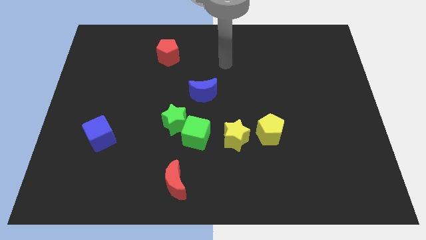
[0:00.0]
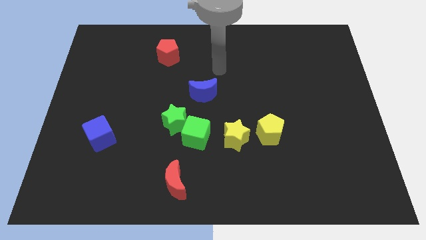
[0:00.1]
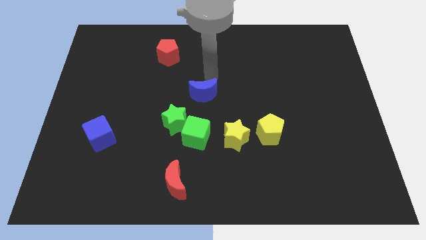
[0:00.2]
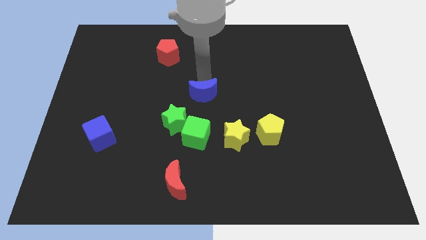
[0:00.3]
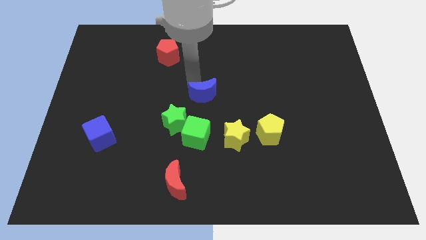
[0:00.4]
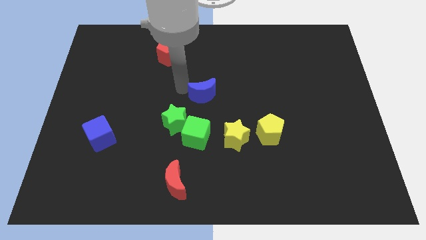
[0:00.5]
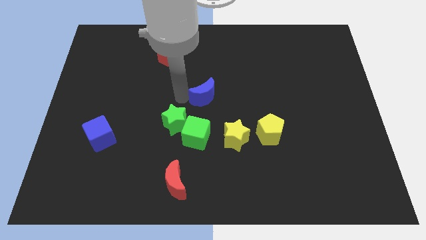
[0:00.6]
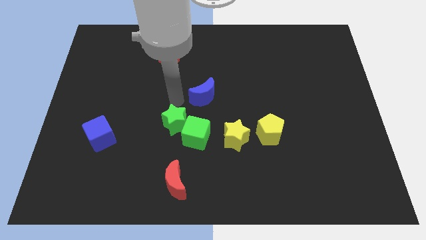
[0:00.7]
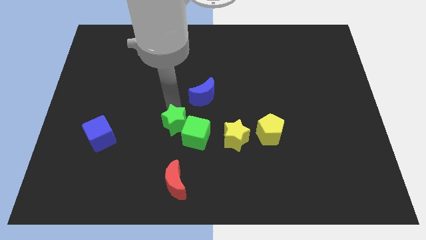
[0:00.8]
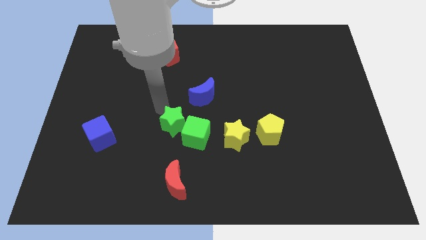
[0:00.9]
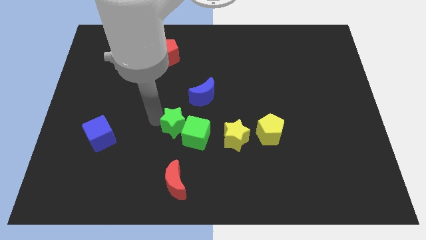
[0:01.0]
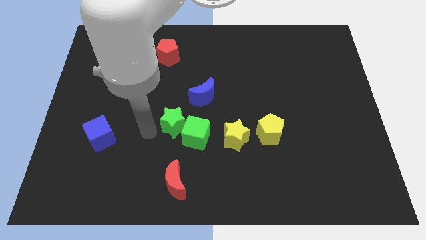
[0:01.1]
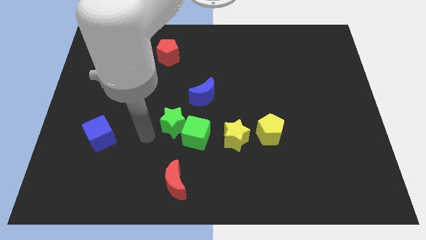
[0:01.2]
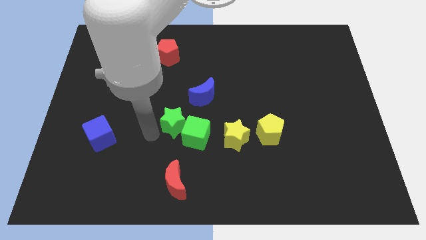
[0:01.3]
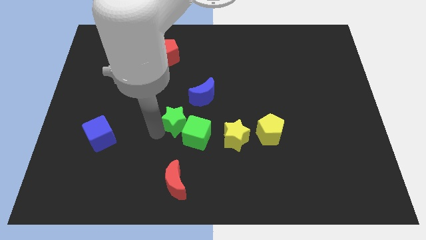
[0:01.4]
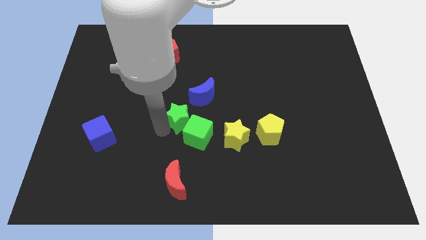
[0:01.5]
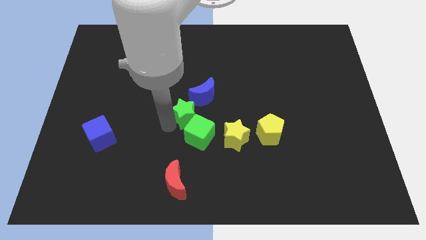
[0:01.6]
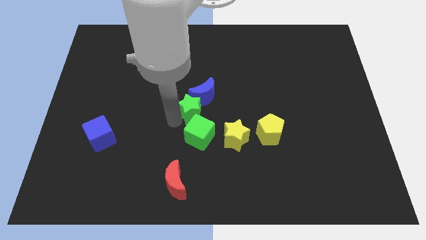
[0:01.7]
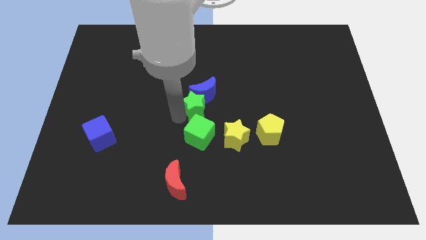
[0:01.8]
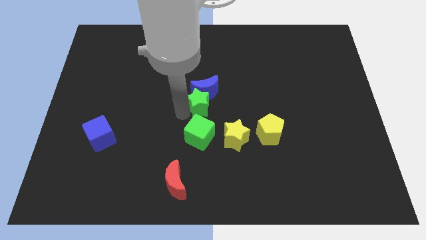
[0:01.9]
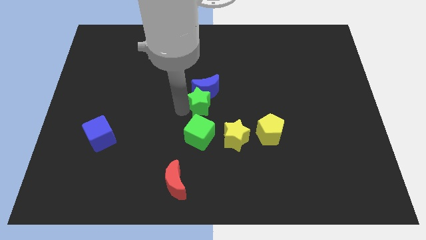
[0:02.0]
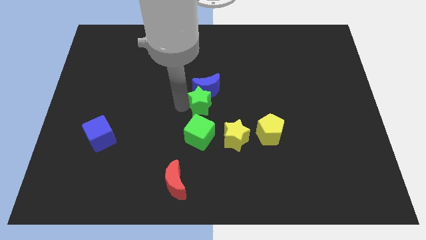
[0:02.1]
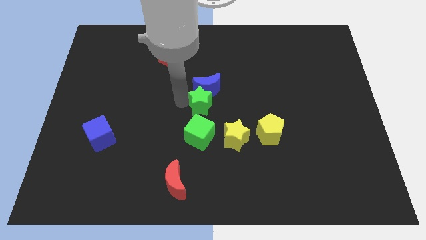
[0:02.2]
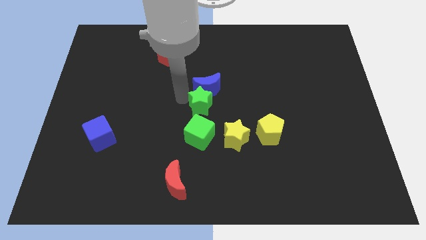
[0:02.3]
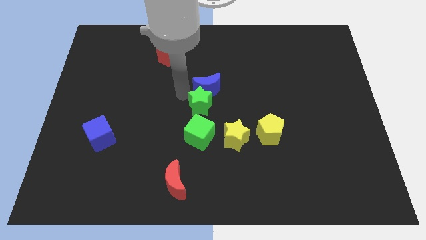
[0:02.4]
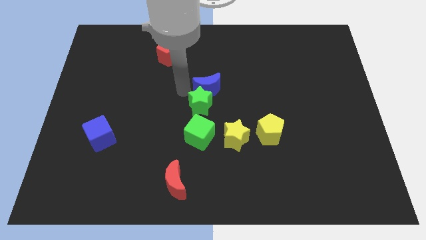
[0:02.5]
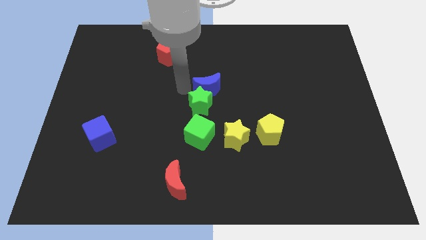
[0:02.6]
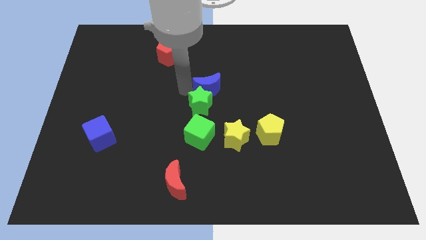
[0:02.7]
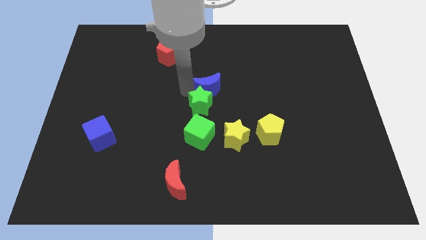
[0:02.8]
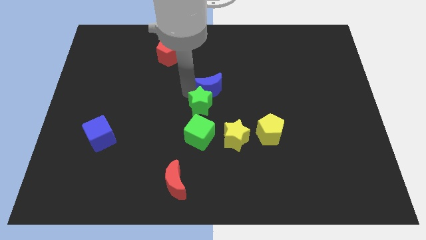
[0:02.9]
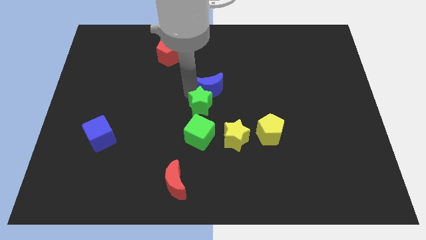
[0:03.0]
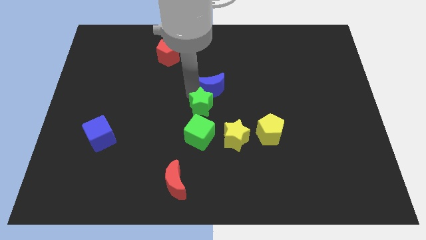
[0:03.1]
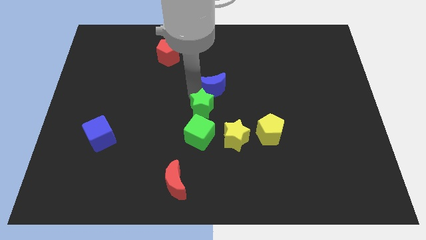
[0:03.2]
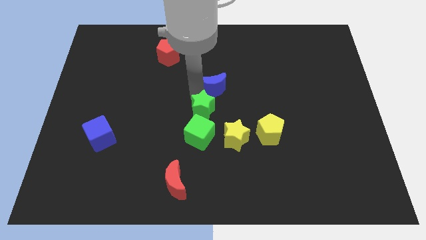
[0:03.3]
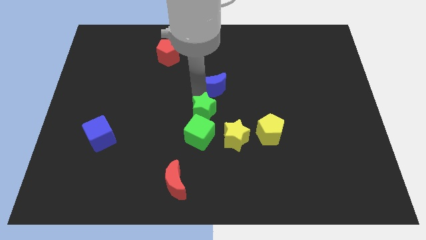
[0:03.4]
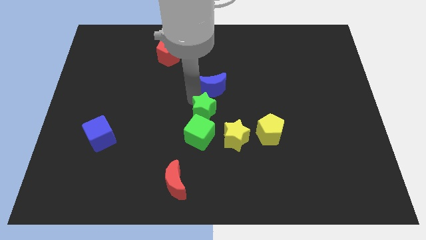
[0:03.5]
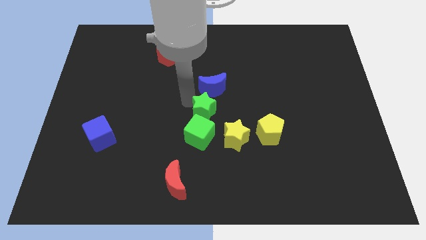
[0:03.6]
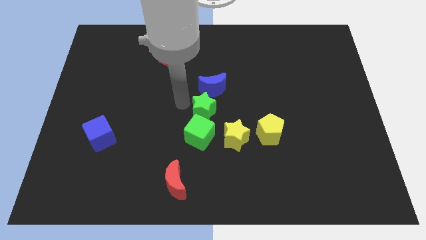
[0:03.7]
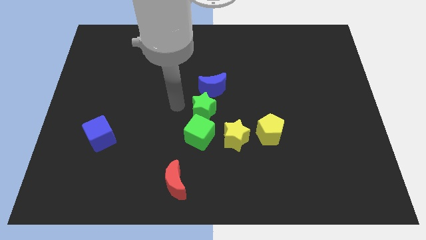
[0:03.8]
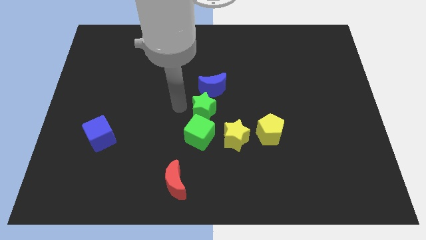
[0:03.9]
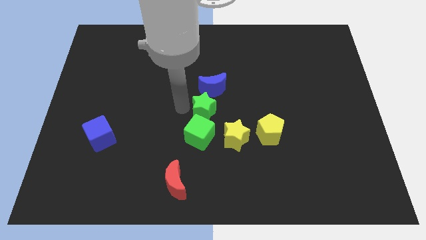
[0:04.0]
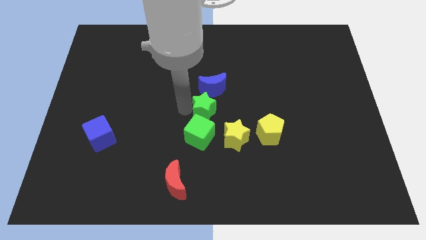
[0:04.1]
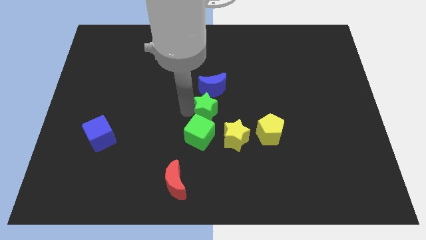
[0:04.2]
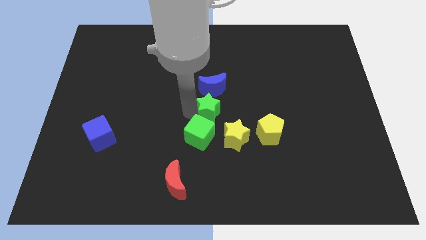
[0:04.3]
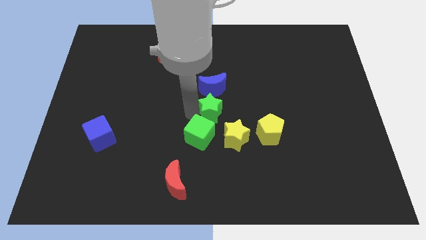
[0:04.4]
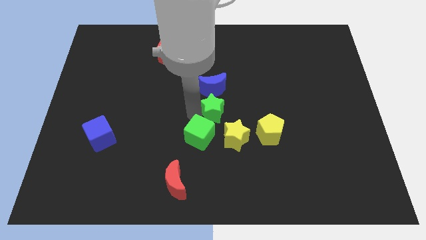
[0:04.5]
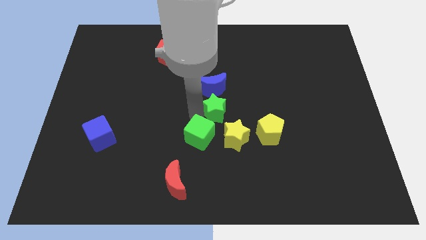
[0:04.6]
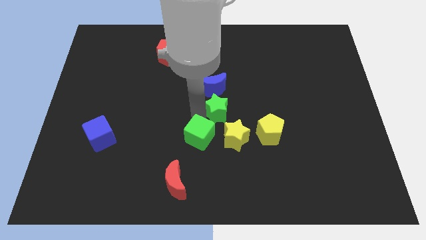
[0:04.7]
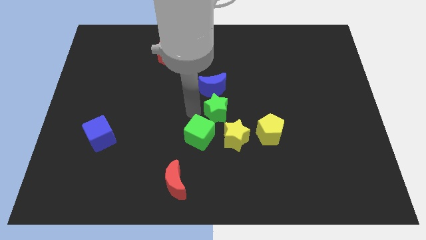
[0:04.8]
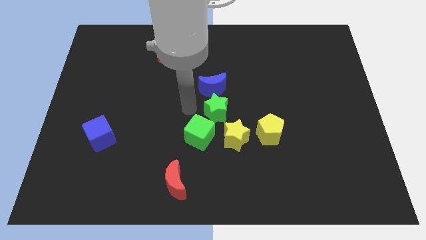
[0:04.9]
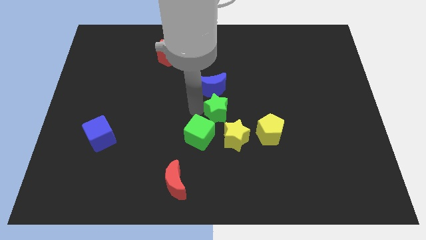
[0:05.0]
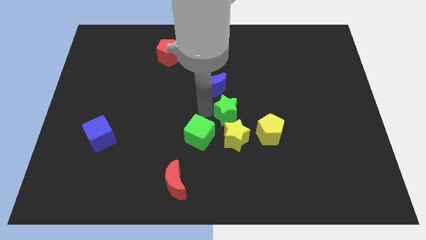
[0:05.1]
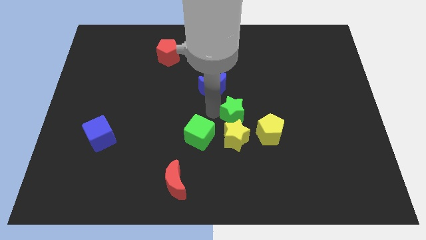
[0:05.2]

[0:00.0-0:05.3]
put the green star to the top right of the yellow star

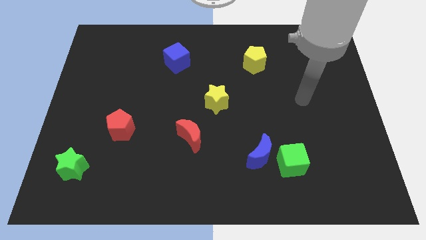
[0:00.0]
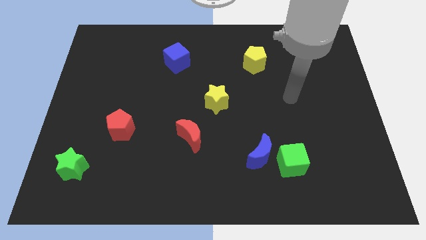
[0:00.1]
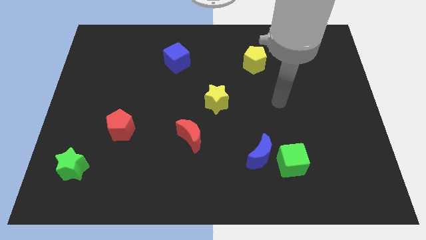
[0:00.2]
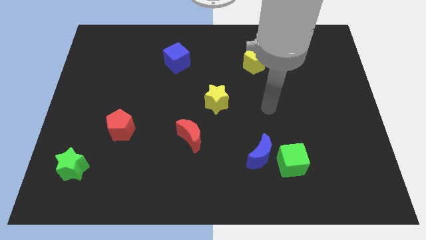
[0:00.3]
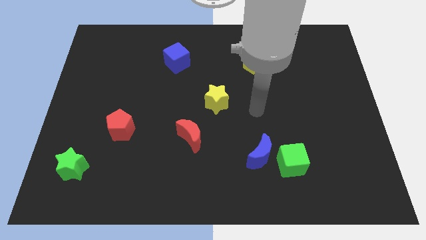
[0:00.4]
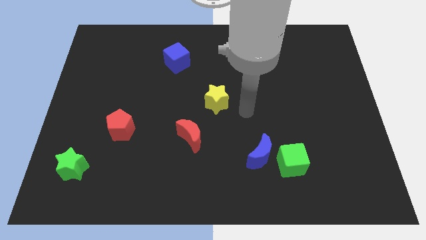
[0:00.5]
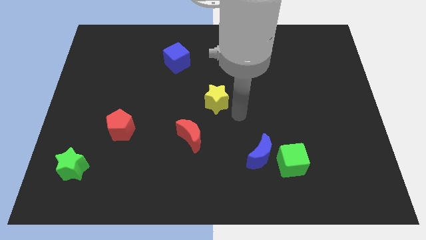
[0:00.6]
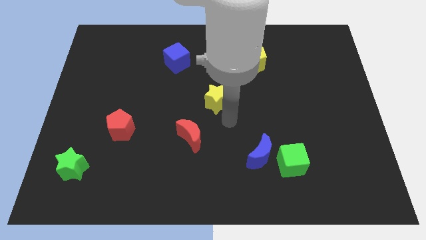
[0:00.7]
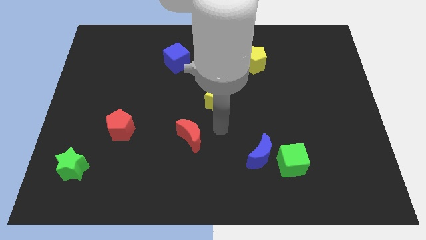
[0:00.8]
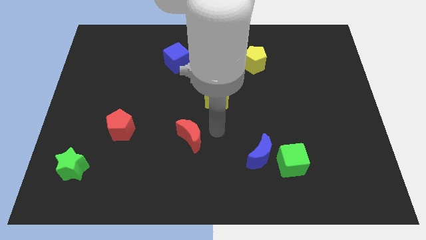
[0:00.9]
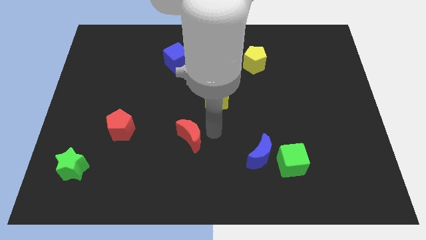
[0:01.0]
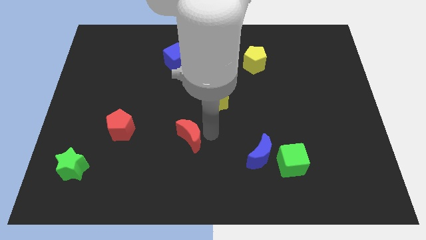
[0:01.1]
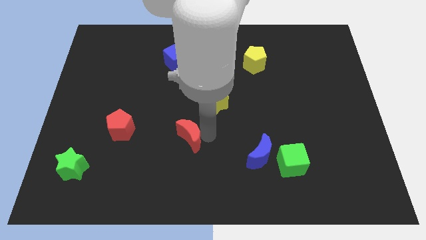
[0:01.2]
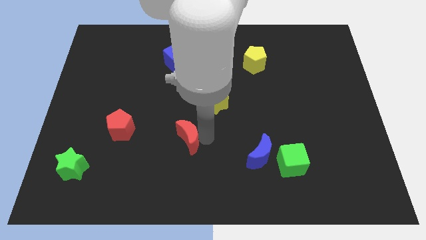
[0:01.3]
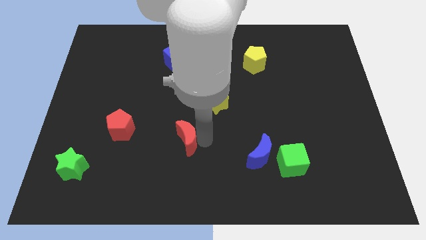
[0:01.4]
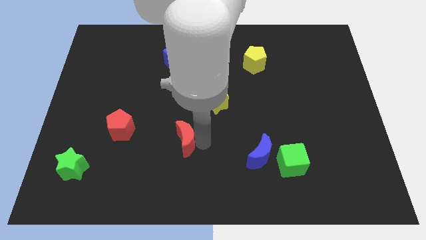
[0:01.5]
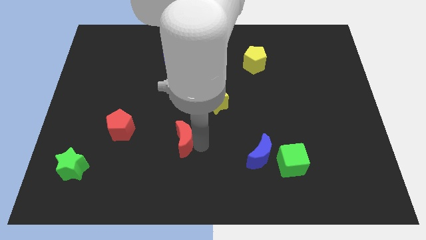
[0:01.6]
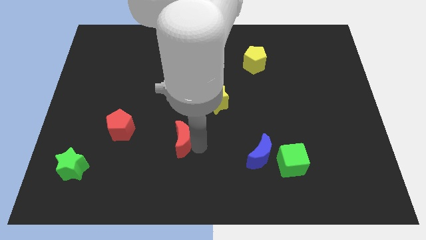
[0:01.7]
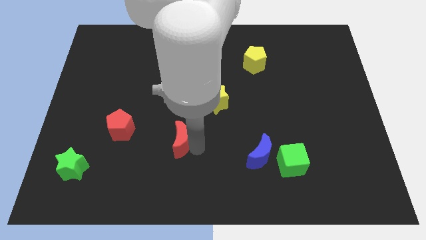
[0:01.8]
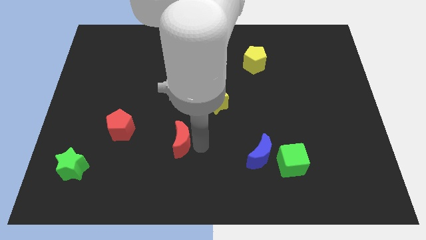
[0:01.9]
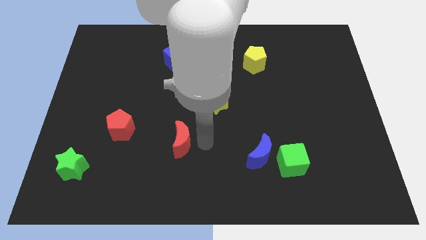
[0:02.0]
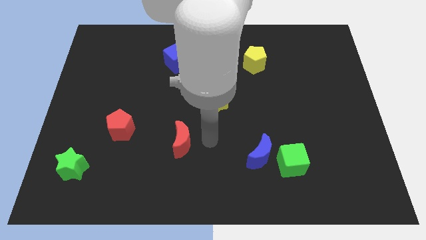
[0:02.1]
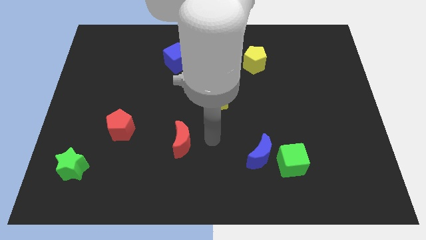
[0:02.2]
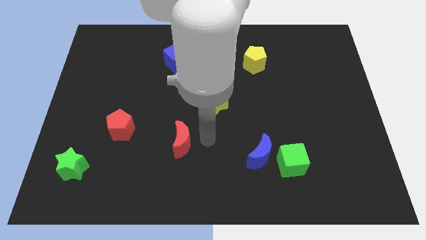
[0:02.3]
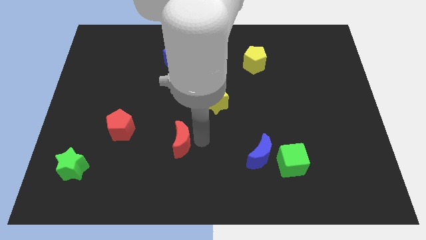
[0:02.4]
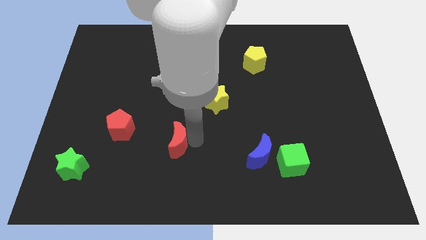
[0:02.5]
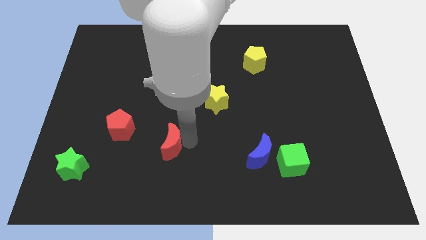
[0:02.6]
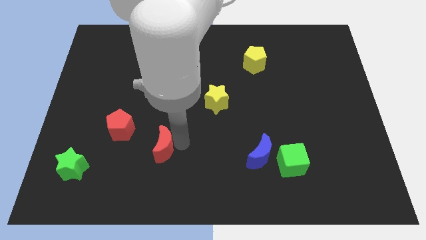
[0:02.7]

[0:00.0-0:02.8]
slide the red moon diagonally down and to the right of the red pentagon
